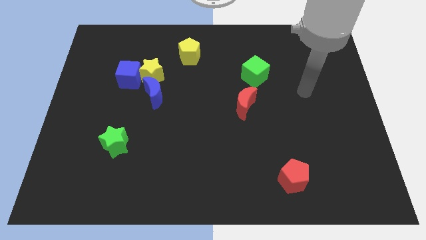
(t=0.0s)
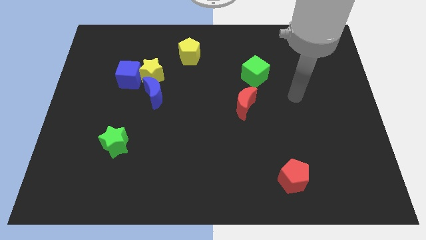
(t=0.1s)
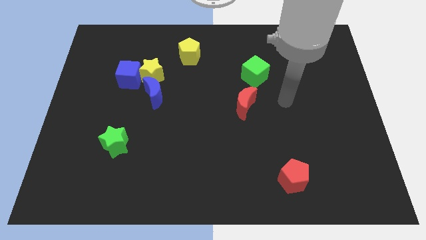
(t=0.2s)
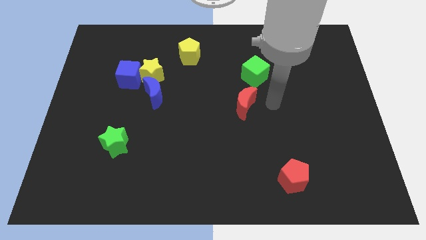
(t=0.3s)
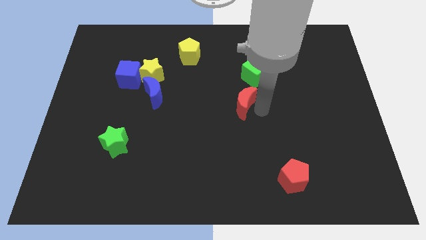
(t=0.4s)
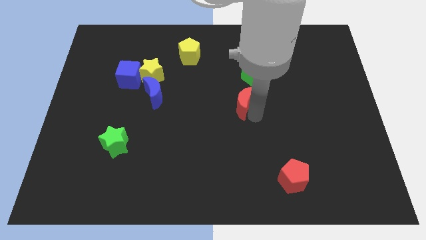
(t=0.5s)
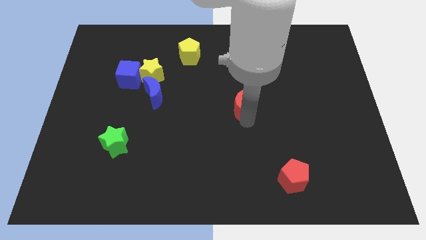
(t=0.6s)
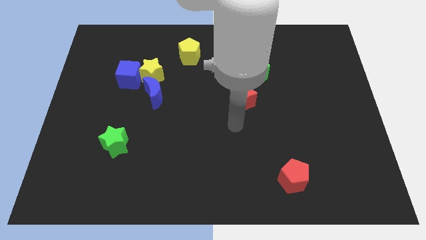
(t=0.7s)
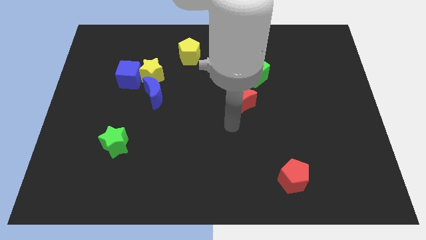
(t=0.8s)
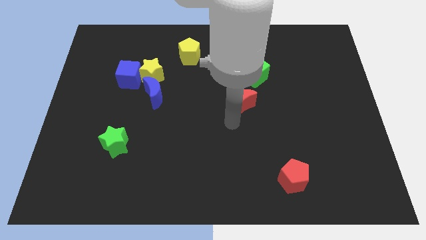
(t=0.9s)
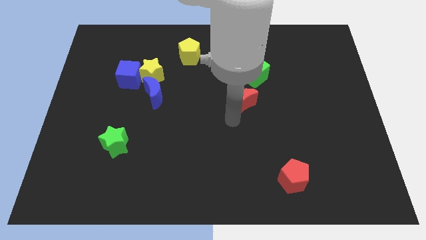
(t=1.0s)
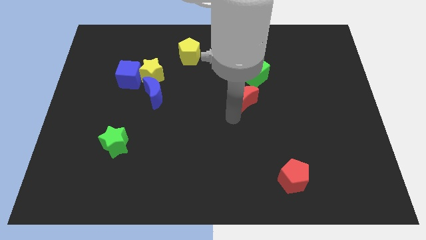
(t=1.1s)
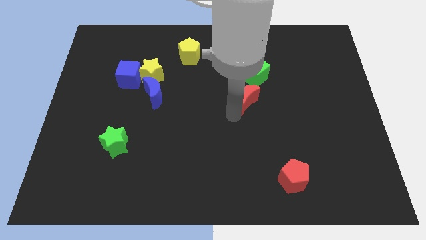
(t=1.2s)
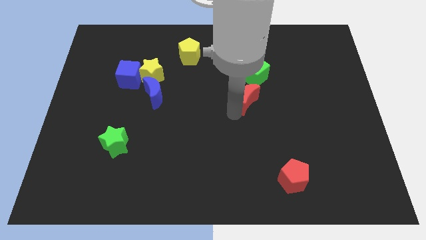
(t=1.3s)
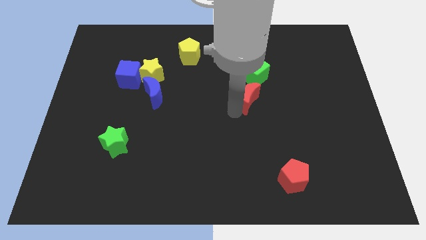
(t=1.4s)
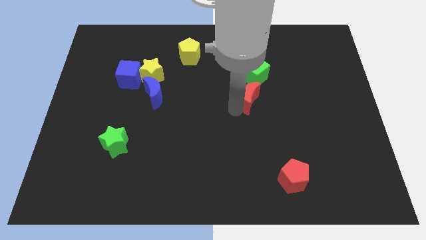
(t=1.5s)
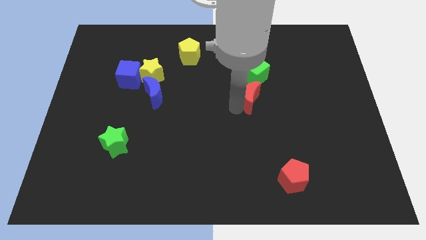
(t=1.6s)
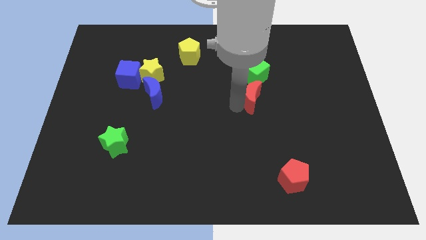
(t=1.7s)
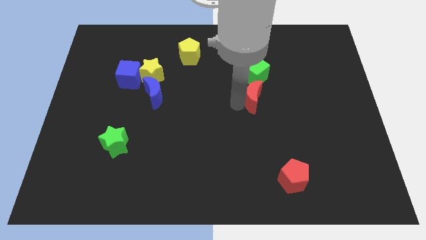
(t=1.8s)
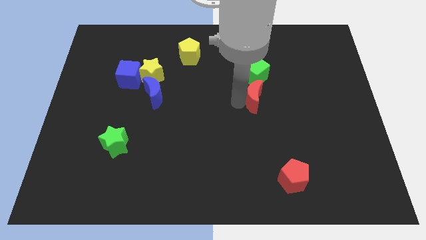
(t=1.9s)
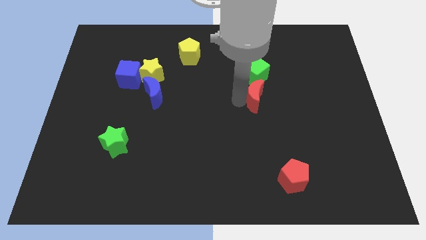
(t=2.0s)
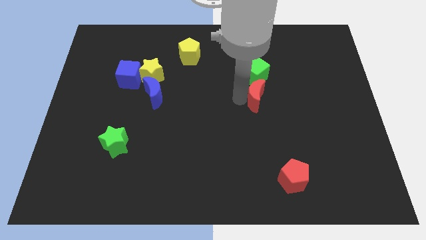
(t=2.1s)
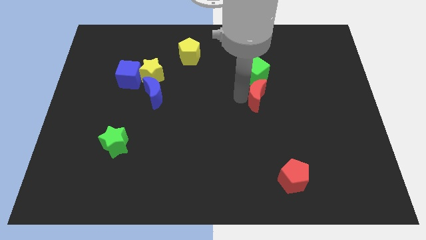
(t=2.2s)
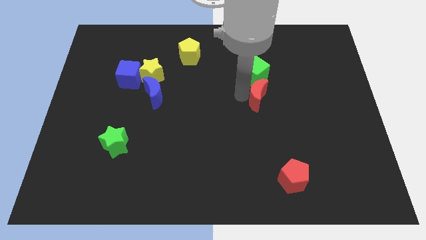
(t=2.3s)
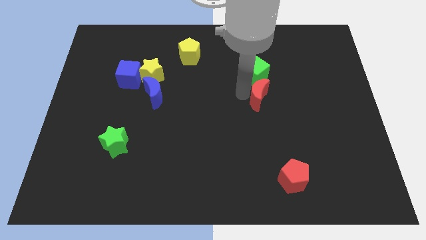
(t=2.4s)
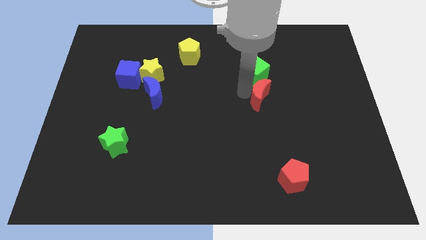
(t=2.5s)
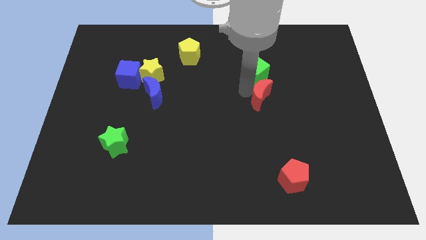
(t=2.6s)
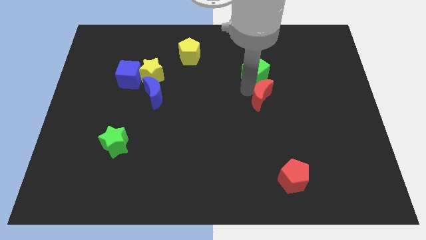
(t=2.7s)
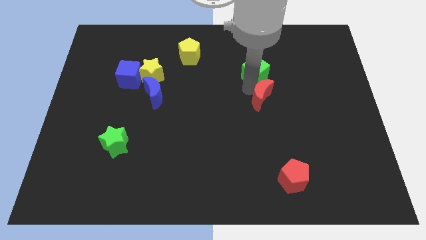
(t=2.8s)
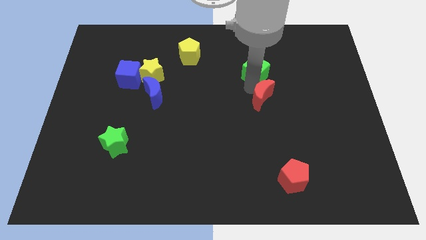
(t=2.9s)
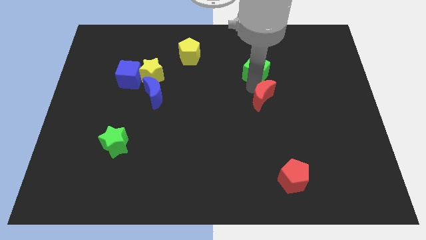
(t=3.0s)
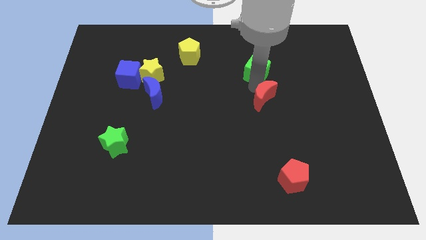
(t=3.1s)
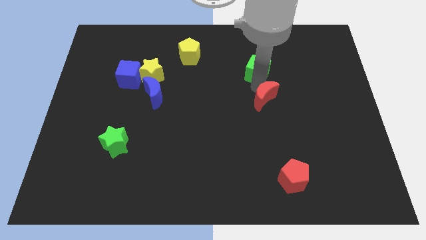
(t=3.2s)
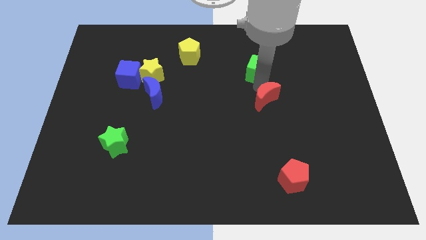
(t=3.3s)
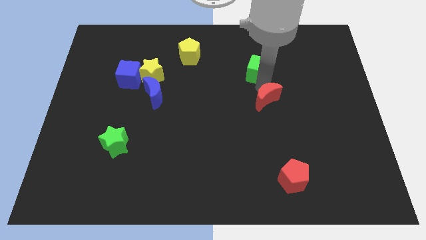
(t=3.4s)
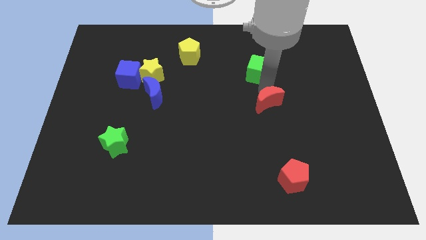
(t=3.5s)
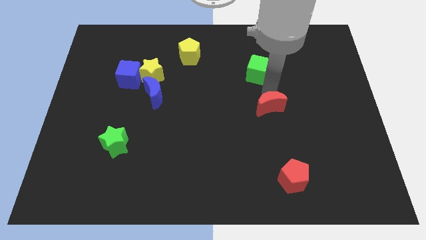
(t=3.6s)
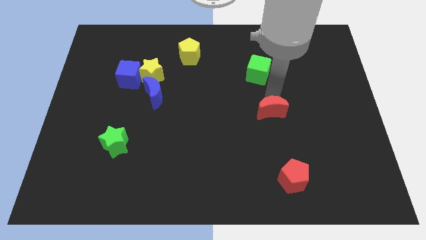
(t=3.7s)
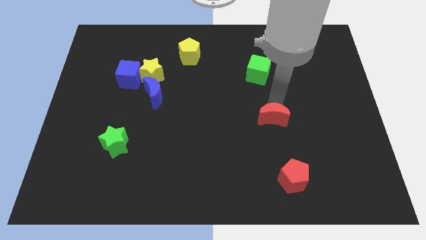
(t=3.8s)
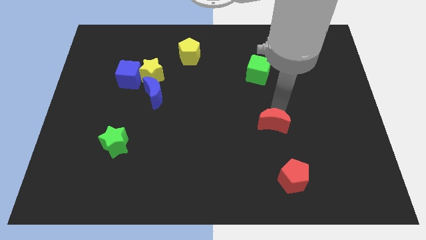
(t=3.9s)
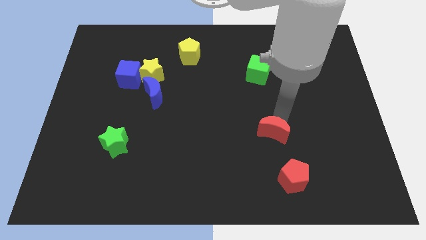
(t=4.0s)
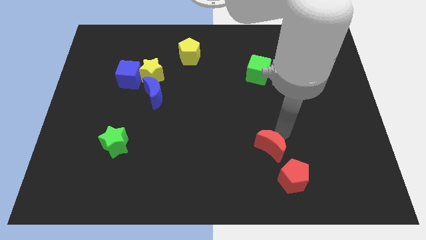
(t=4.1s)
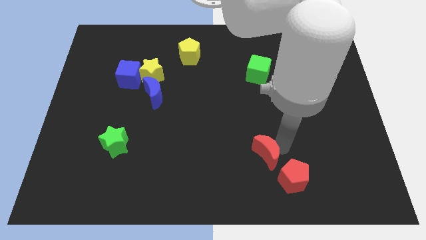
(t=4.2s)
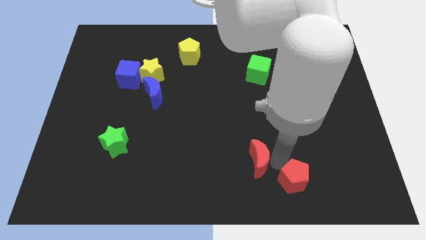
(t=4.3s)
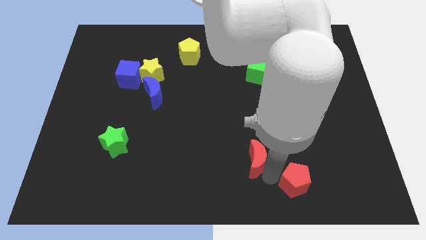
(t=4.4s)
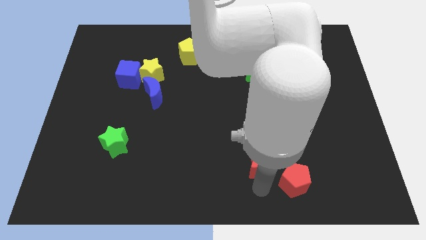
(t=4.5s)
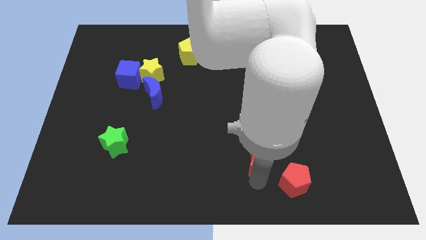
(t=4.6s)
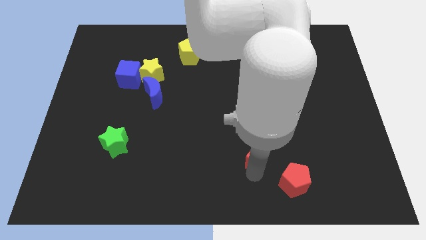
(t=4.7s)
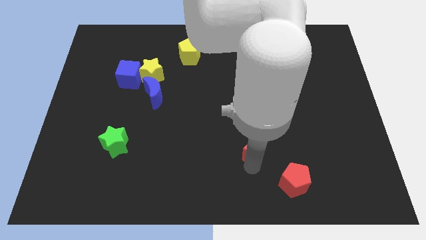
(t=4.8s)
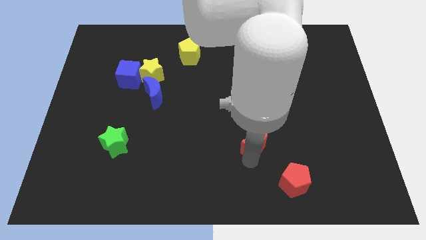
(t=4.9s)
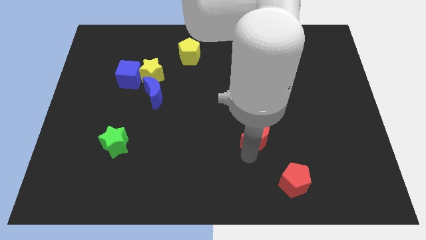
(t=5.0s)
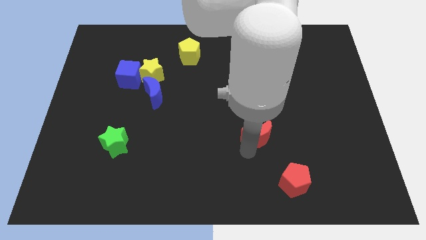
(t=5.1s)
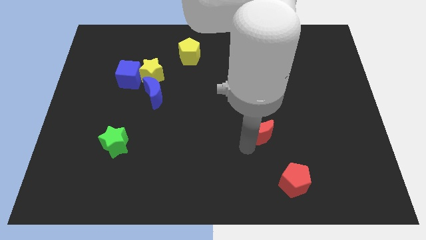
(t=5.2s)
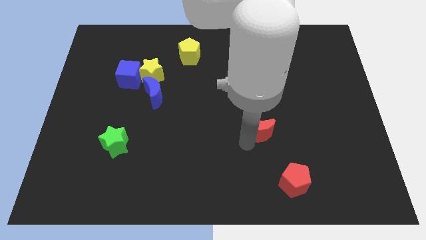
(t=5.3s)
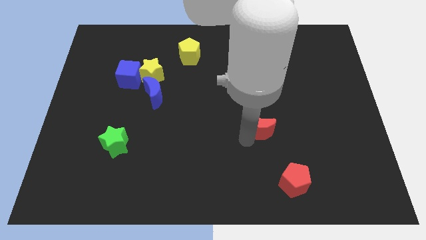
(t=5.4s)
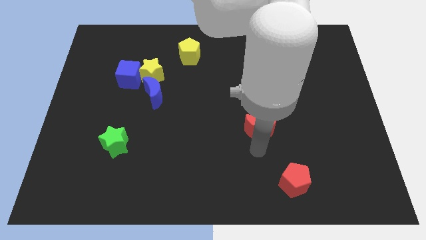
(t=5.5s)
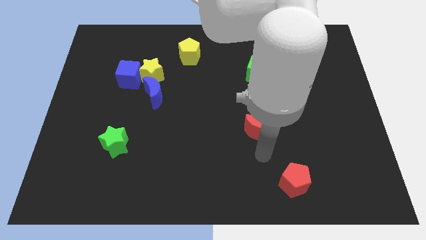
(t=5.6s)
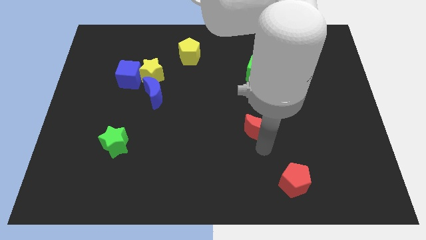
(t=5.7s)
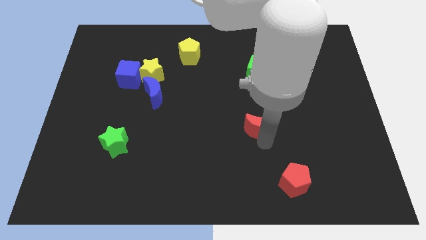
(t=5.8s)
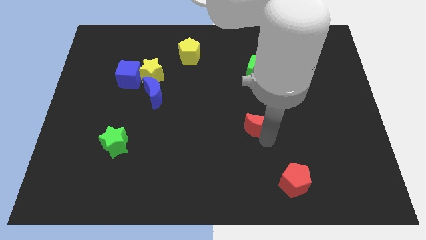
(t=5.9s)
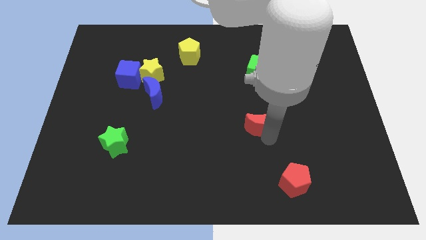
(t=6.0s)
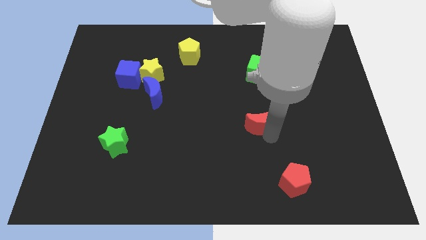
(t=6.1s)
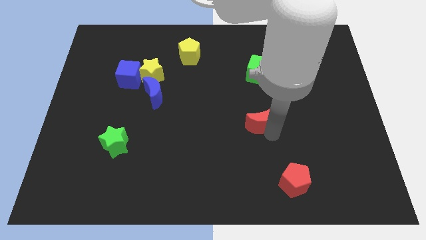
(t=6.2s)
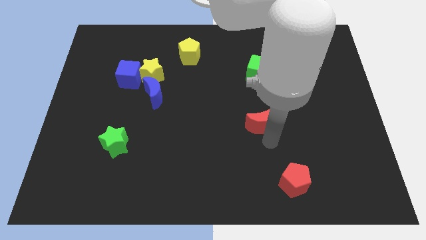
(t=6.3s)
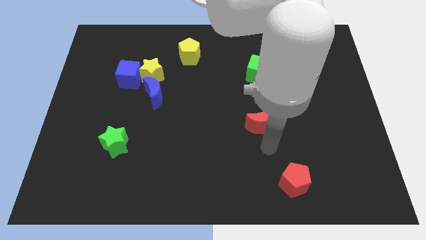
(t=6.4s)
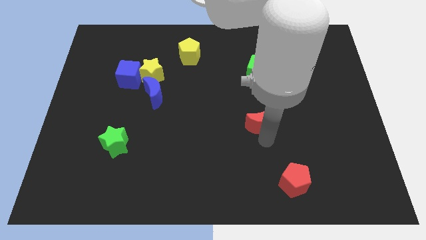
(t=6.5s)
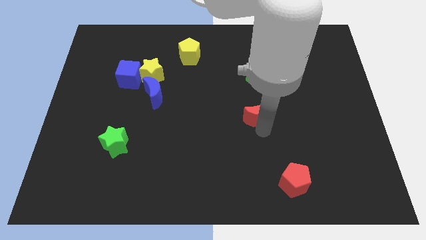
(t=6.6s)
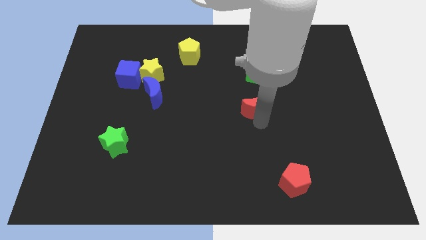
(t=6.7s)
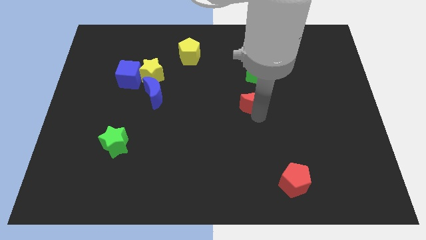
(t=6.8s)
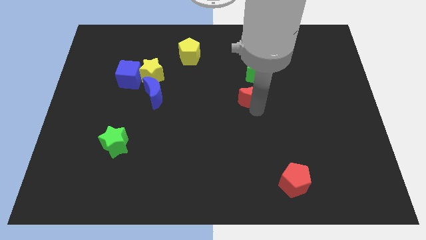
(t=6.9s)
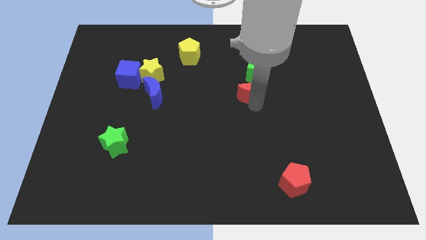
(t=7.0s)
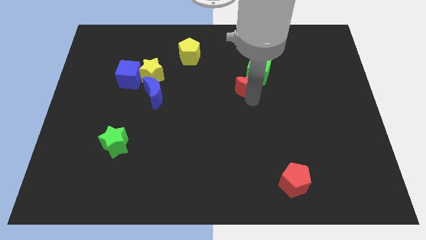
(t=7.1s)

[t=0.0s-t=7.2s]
move the red moon towards the green cube
